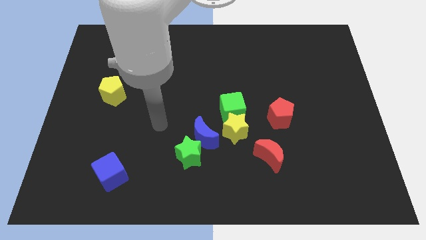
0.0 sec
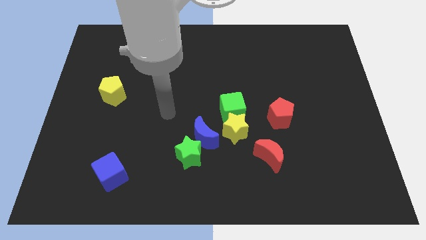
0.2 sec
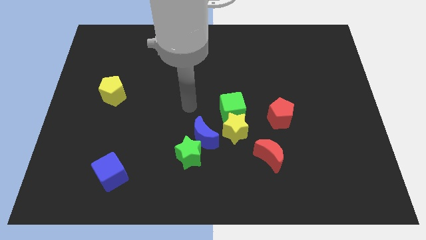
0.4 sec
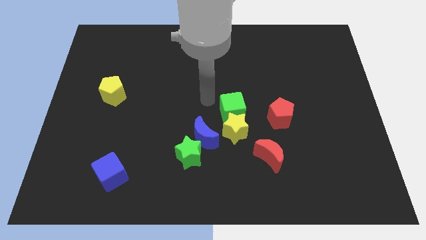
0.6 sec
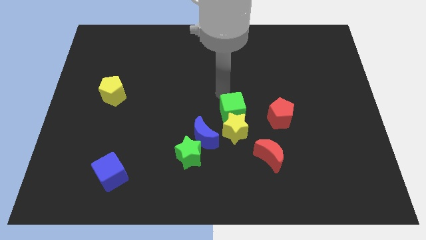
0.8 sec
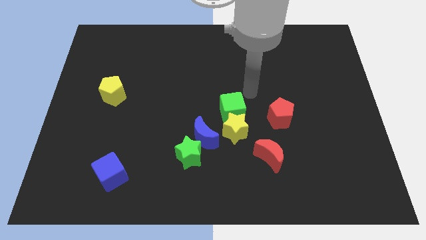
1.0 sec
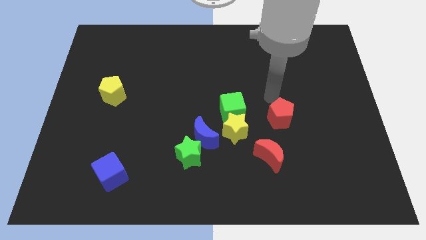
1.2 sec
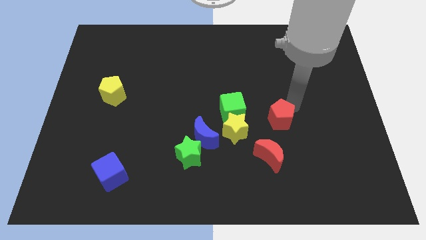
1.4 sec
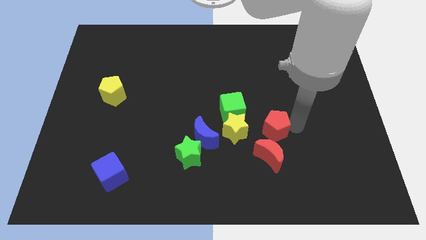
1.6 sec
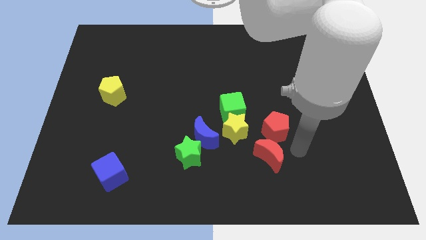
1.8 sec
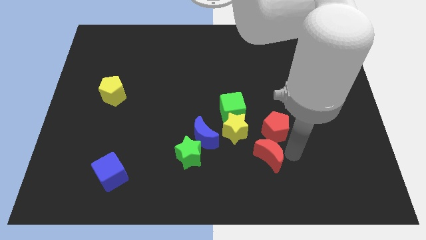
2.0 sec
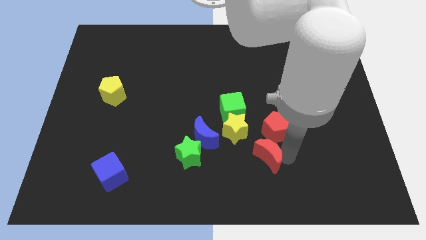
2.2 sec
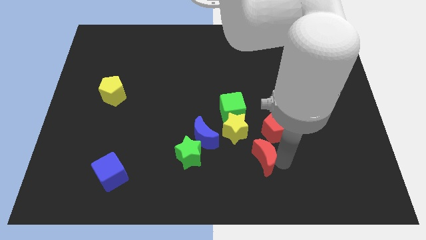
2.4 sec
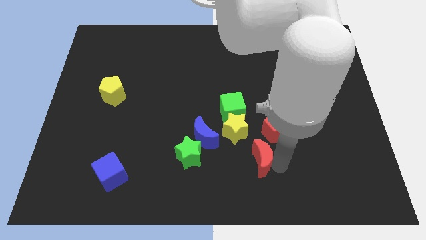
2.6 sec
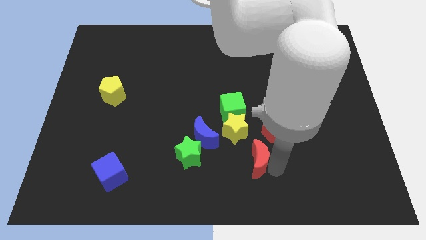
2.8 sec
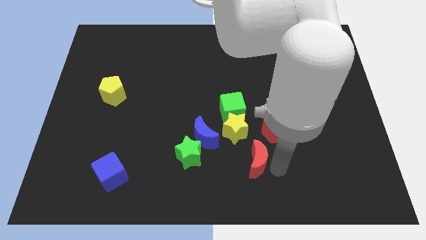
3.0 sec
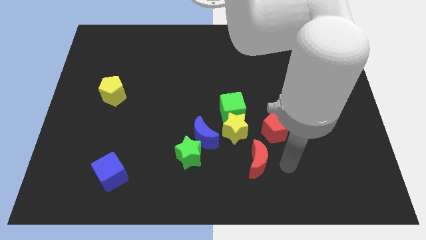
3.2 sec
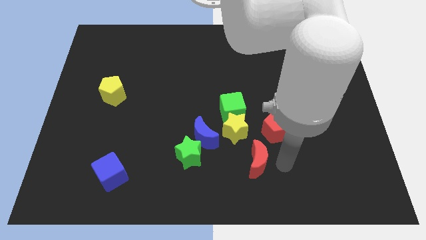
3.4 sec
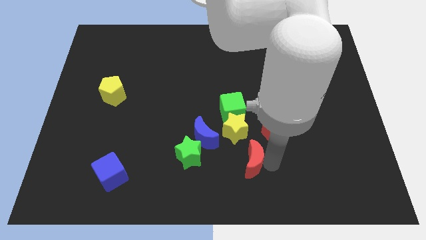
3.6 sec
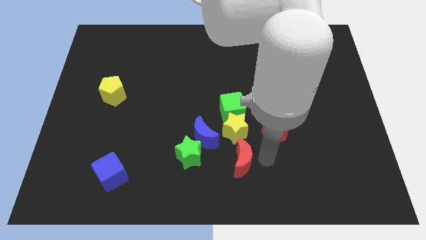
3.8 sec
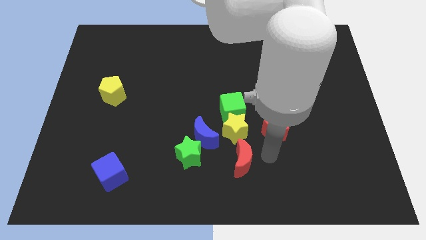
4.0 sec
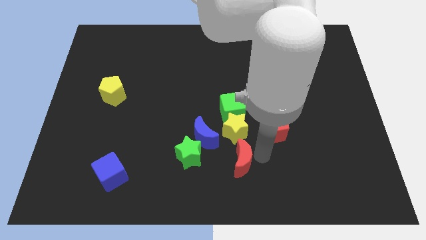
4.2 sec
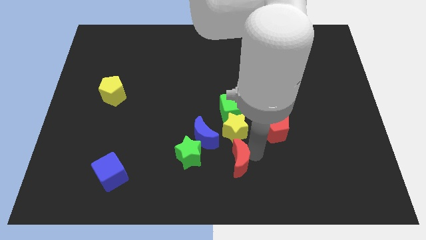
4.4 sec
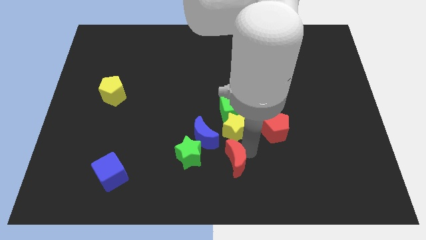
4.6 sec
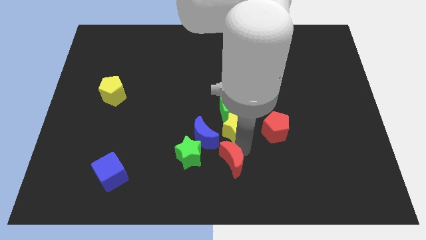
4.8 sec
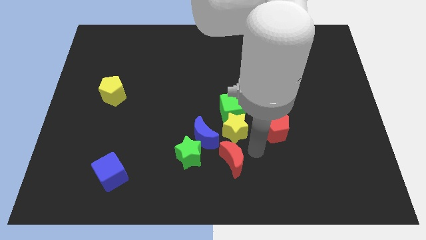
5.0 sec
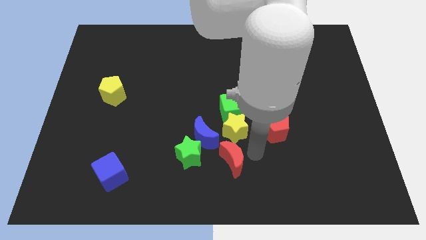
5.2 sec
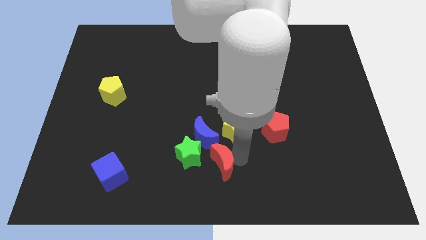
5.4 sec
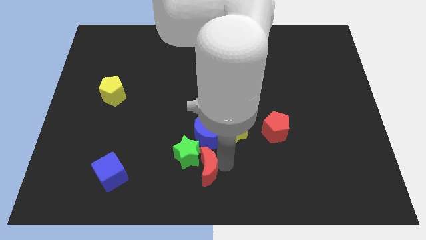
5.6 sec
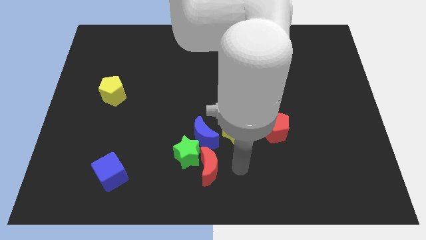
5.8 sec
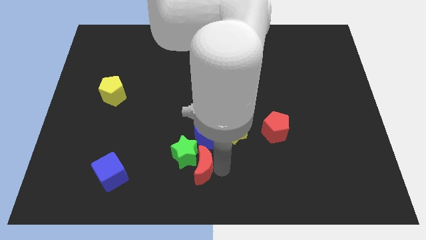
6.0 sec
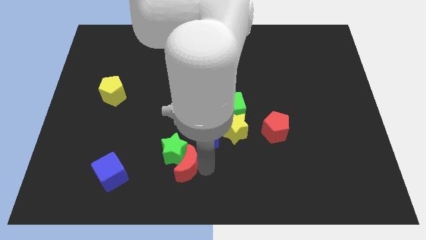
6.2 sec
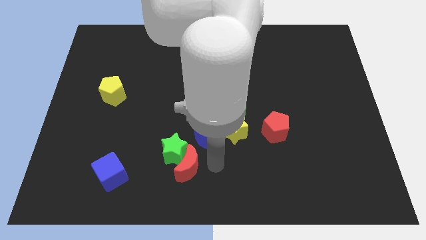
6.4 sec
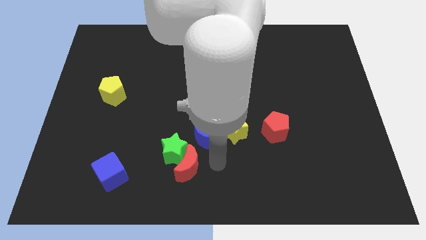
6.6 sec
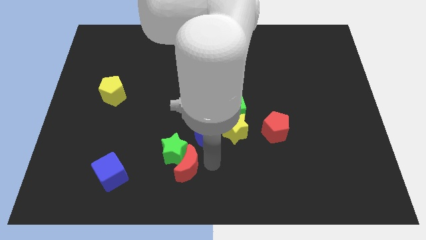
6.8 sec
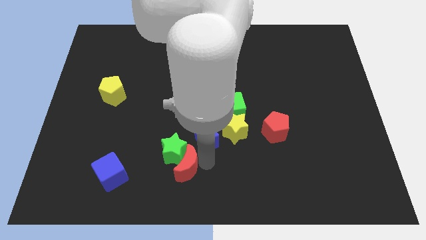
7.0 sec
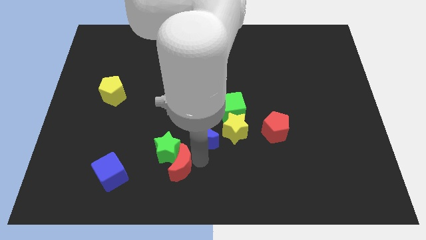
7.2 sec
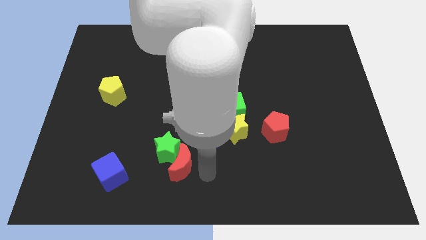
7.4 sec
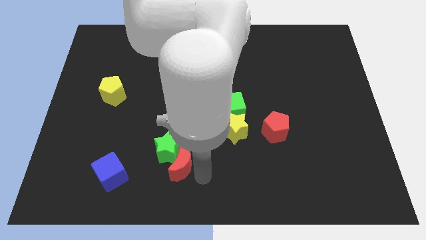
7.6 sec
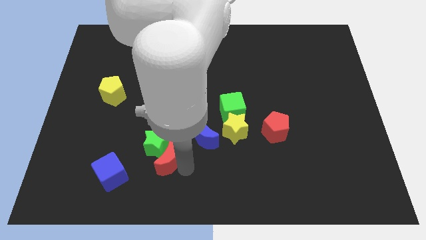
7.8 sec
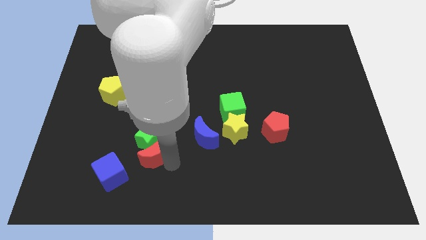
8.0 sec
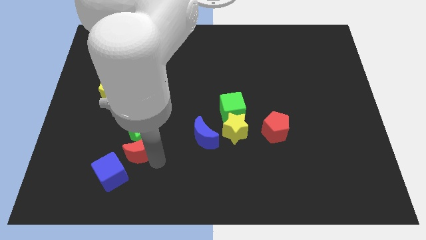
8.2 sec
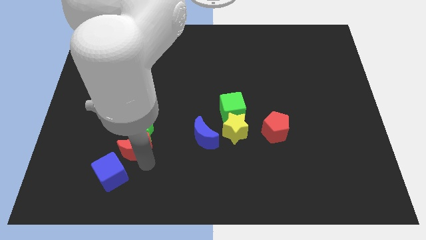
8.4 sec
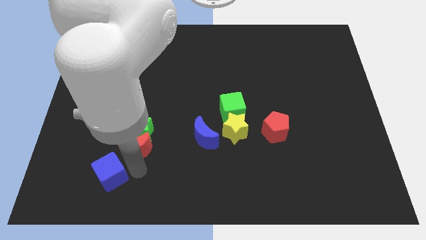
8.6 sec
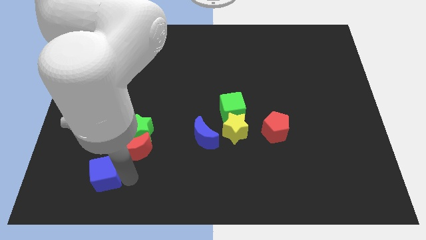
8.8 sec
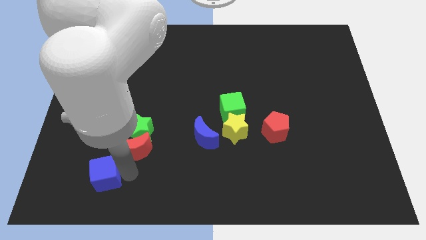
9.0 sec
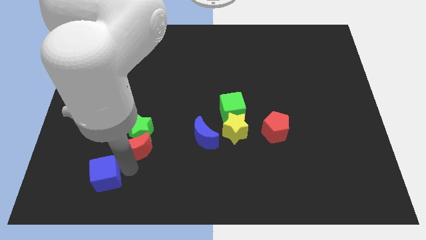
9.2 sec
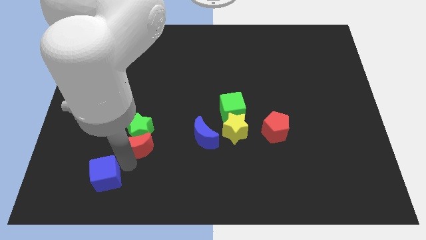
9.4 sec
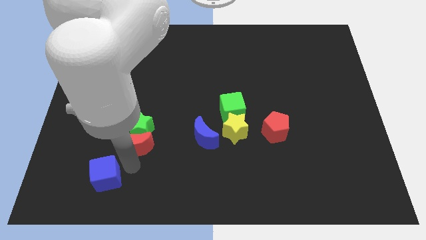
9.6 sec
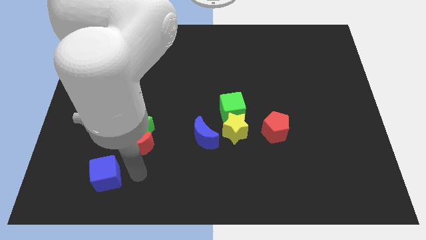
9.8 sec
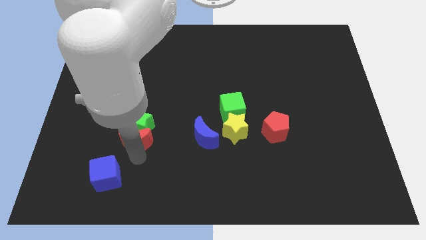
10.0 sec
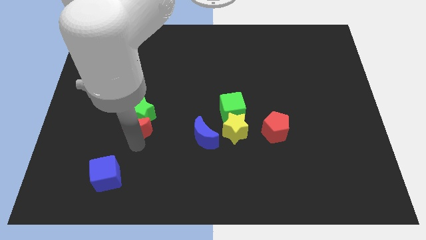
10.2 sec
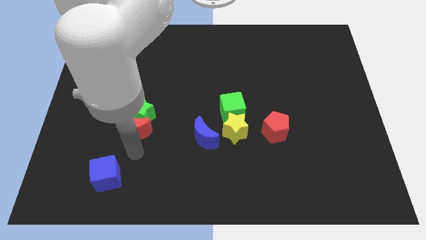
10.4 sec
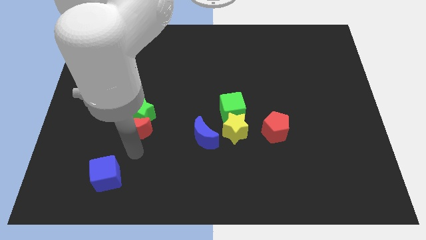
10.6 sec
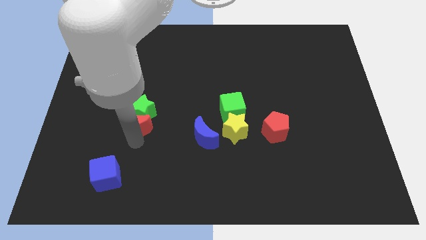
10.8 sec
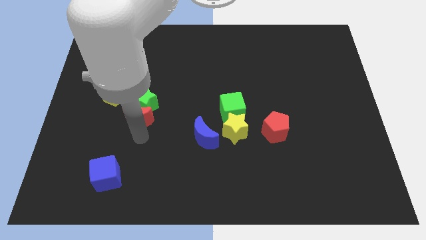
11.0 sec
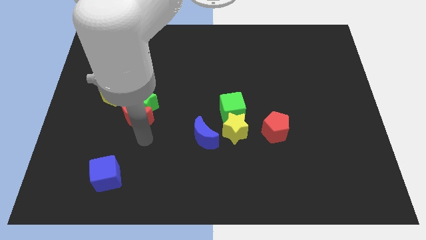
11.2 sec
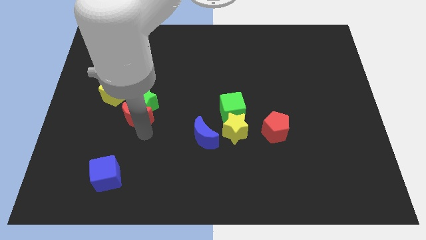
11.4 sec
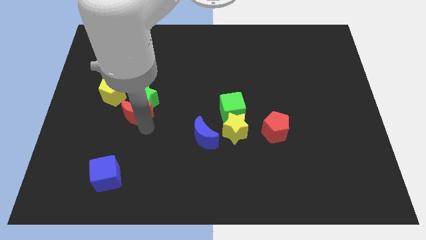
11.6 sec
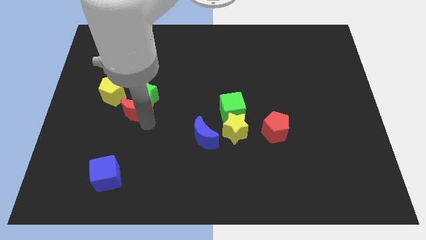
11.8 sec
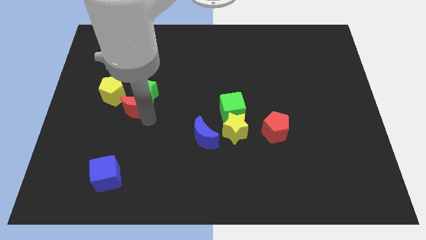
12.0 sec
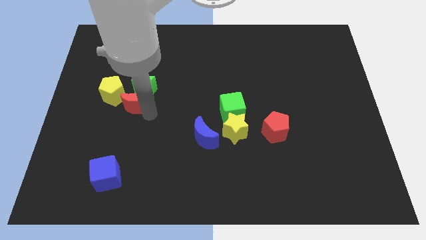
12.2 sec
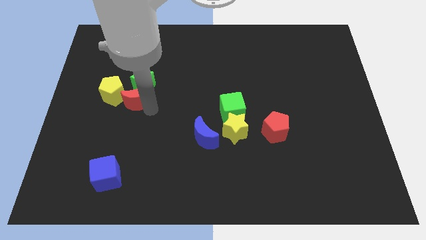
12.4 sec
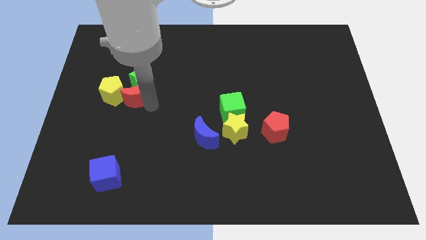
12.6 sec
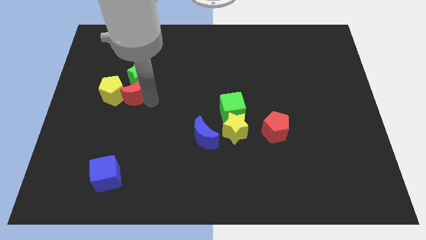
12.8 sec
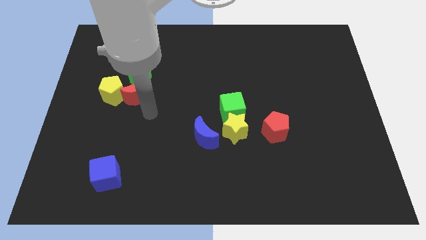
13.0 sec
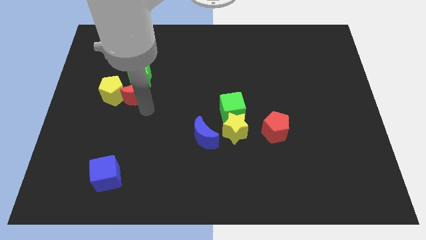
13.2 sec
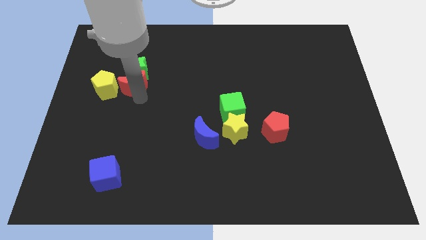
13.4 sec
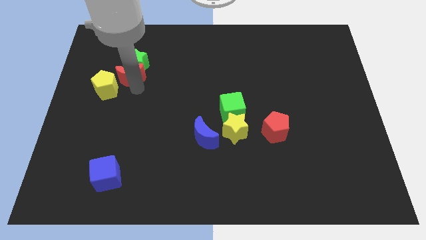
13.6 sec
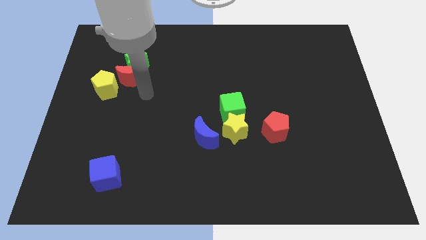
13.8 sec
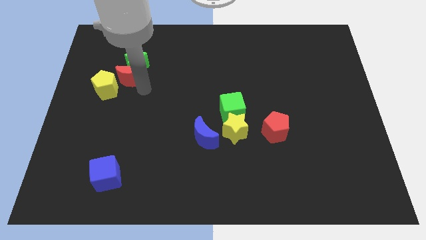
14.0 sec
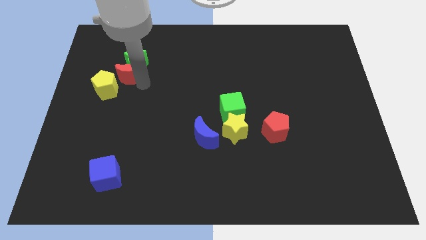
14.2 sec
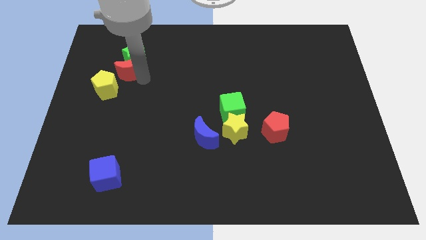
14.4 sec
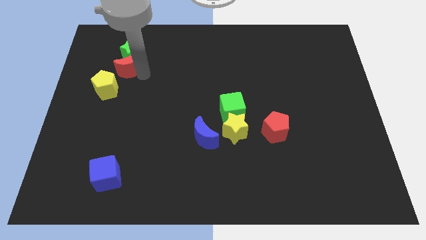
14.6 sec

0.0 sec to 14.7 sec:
move the red moon above the yellow pentagon

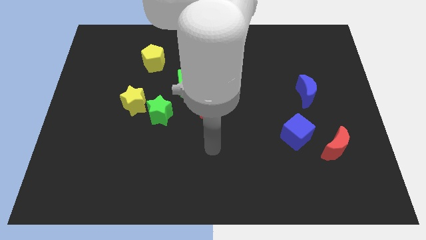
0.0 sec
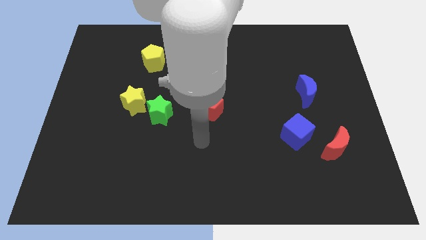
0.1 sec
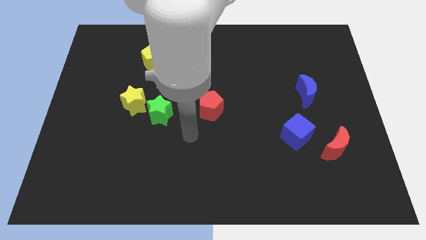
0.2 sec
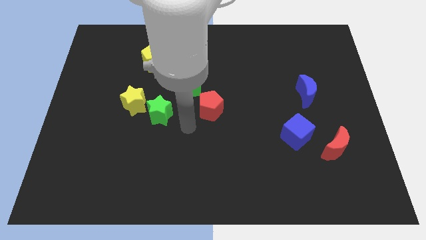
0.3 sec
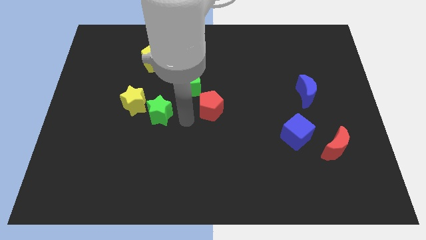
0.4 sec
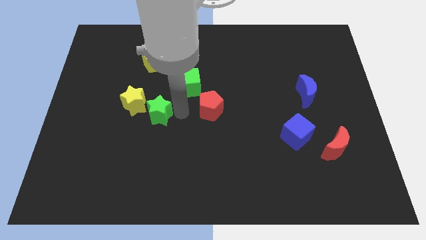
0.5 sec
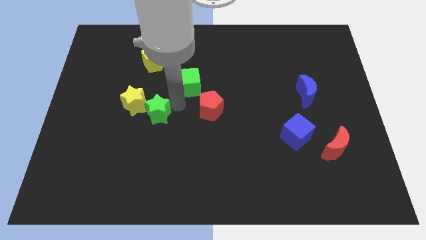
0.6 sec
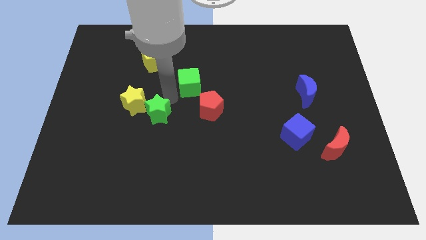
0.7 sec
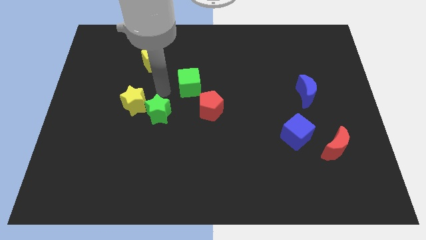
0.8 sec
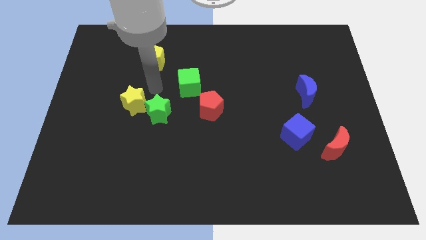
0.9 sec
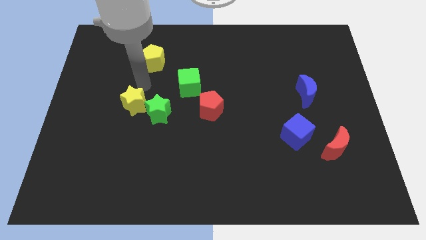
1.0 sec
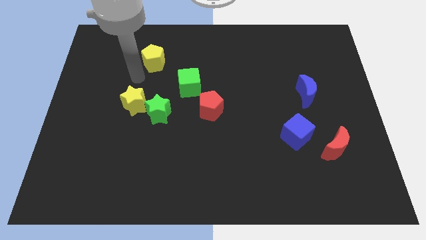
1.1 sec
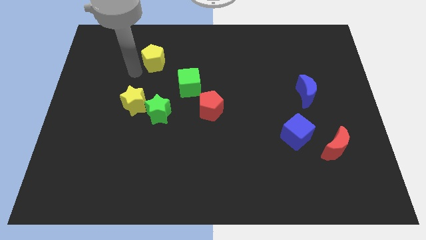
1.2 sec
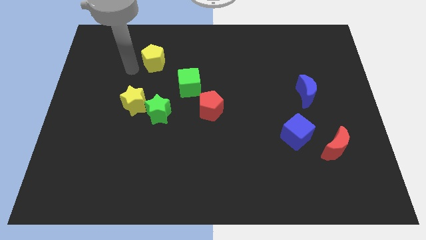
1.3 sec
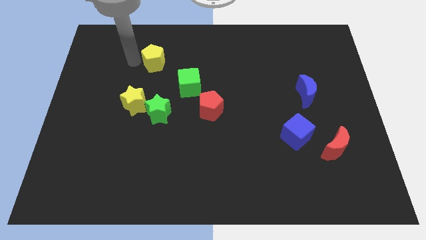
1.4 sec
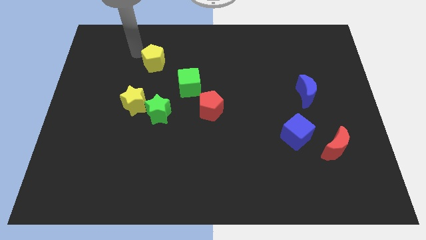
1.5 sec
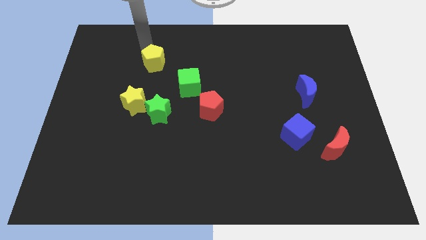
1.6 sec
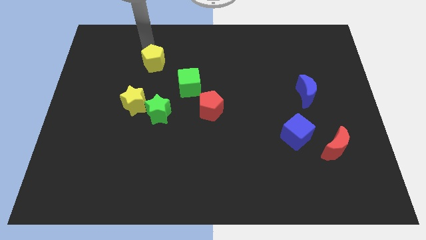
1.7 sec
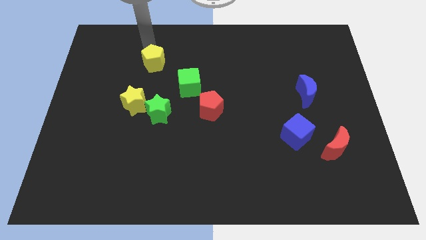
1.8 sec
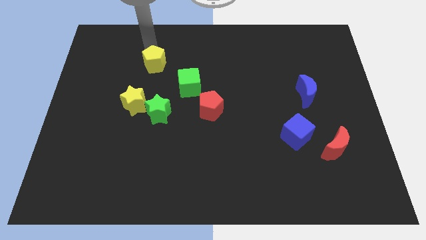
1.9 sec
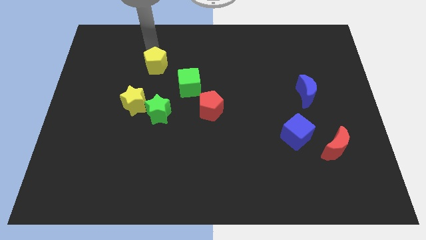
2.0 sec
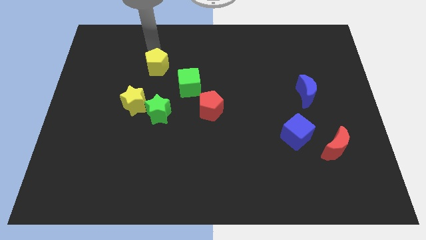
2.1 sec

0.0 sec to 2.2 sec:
slide the yellow pentagon to the top of the green star
